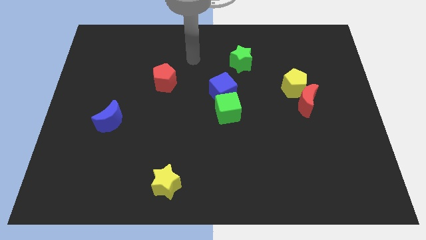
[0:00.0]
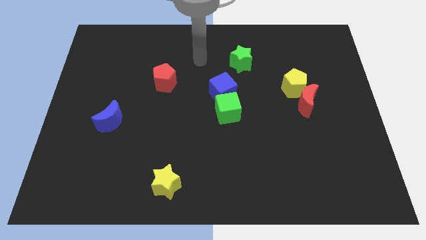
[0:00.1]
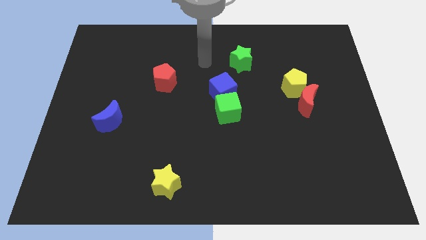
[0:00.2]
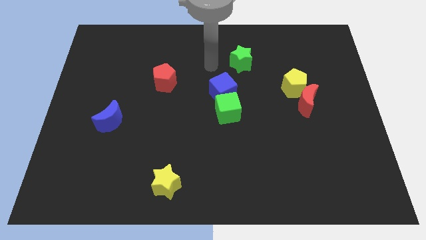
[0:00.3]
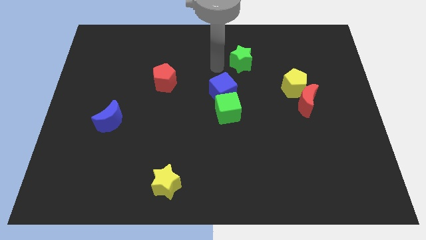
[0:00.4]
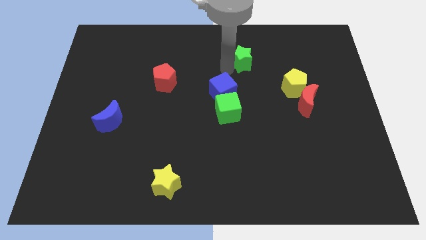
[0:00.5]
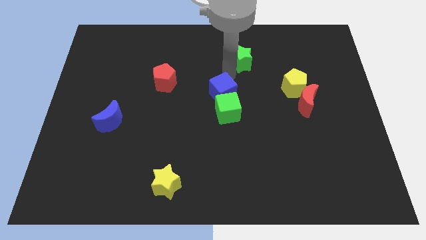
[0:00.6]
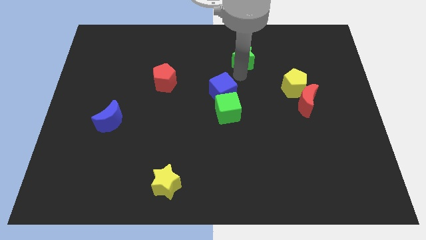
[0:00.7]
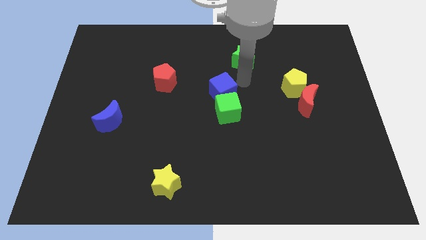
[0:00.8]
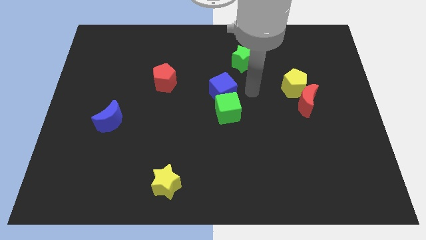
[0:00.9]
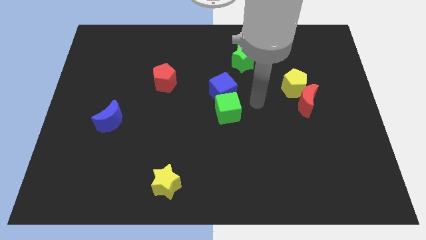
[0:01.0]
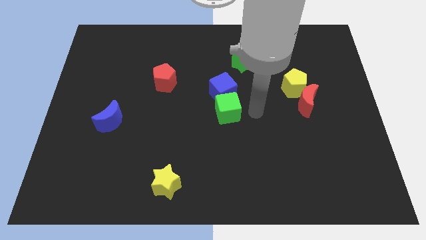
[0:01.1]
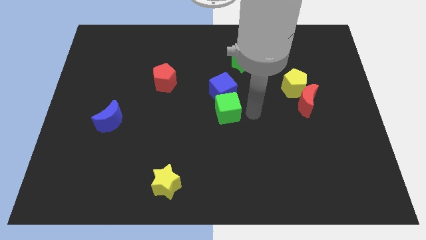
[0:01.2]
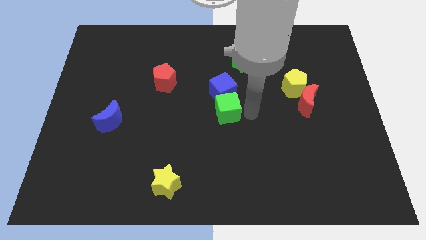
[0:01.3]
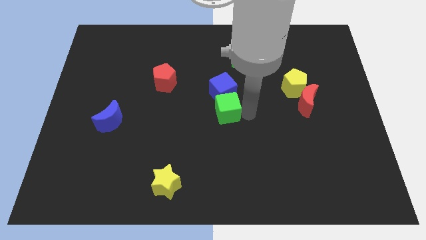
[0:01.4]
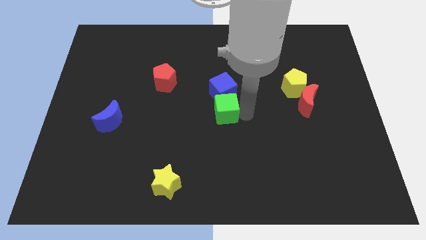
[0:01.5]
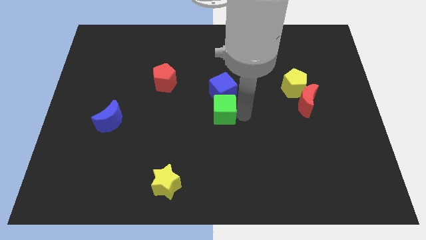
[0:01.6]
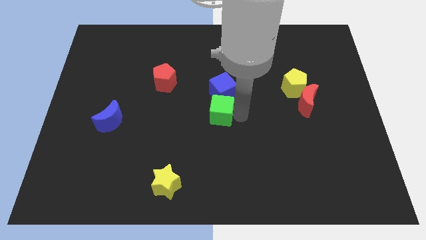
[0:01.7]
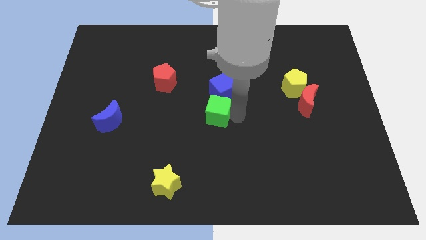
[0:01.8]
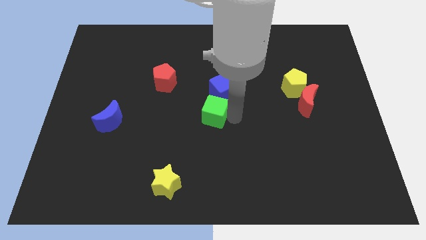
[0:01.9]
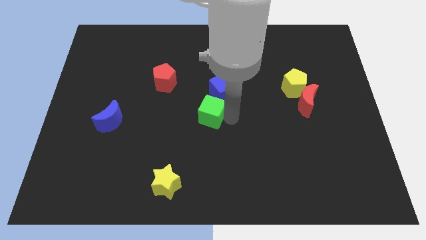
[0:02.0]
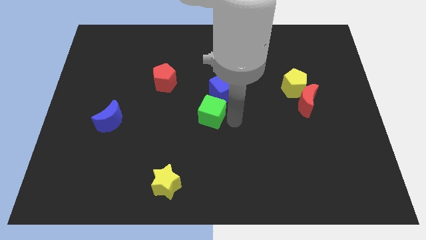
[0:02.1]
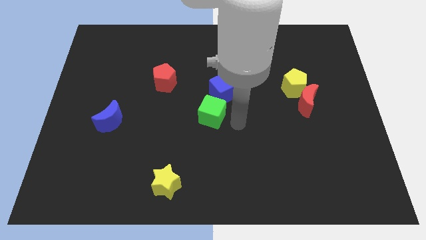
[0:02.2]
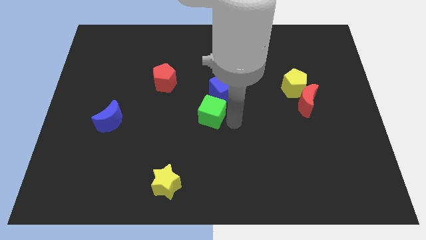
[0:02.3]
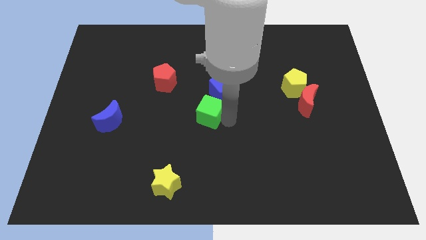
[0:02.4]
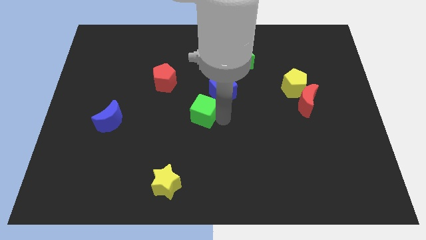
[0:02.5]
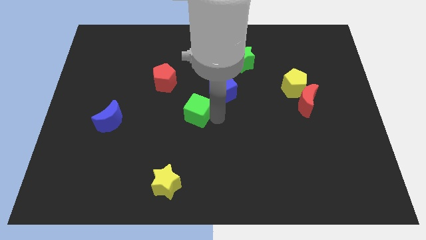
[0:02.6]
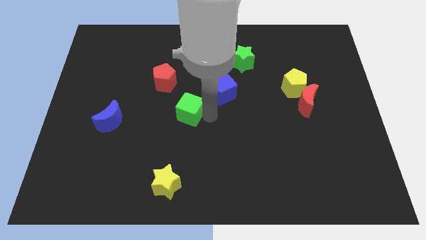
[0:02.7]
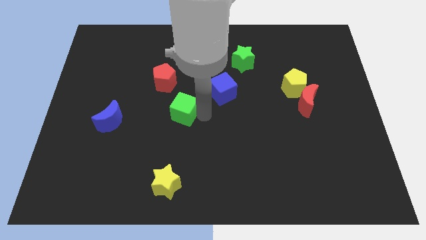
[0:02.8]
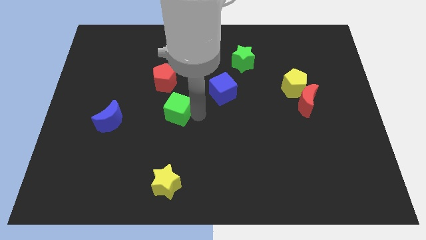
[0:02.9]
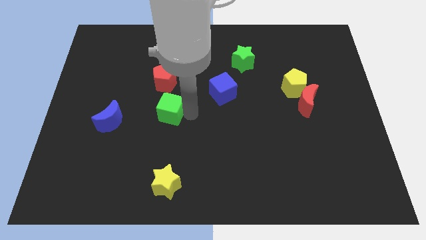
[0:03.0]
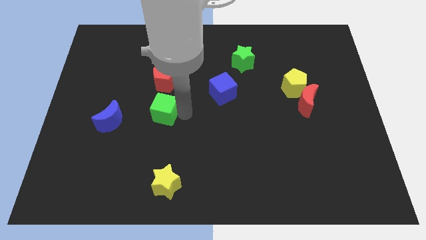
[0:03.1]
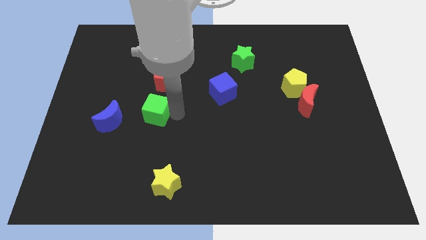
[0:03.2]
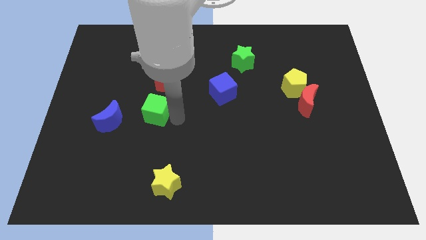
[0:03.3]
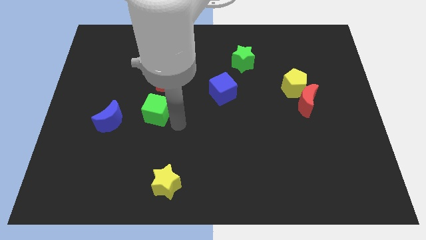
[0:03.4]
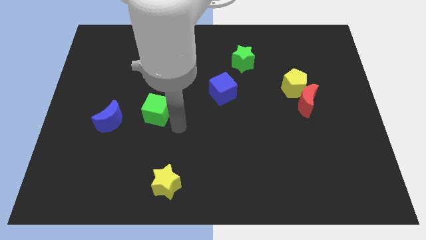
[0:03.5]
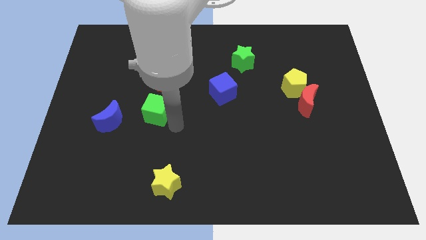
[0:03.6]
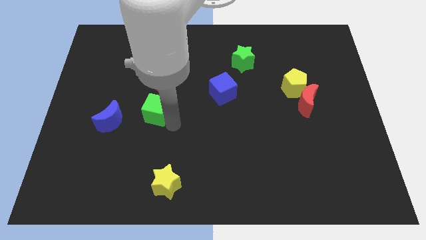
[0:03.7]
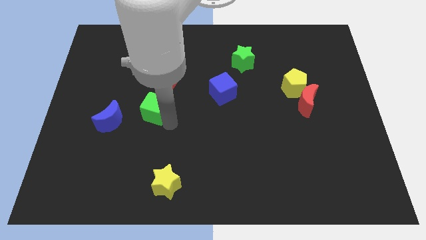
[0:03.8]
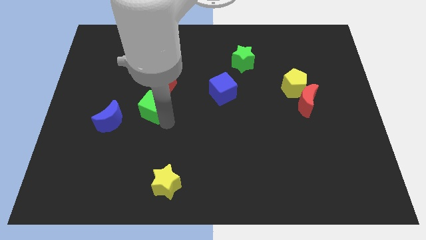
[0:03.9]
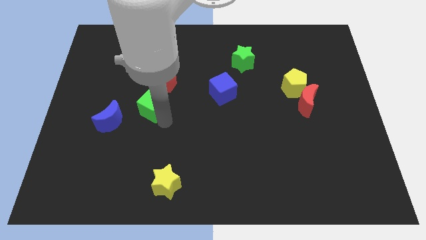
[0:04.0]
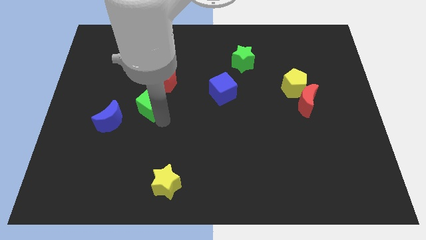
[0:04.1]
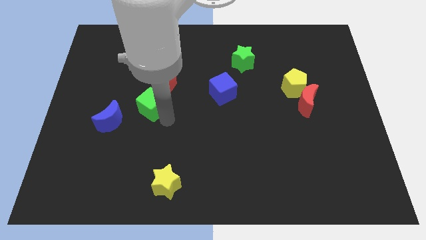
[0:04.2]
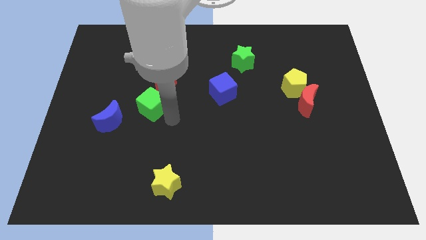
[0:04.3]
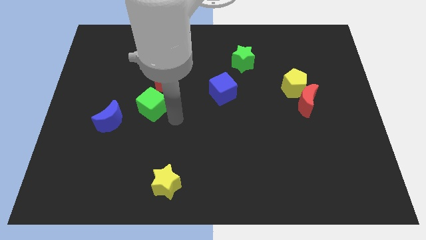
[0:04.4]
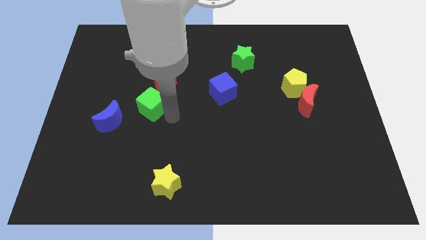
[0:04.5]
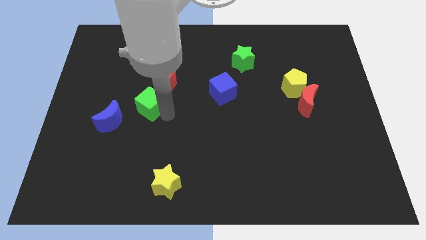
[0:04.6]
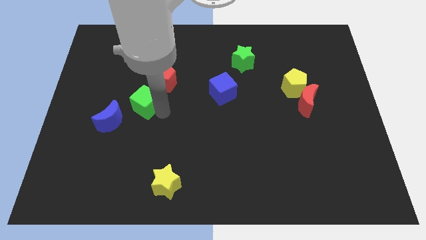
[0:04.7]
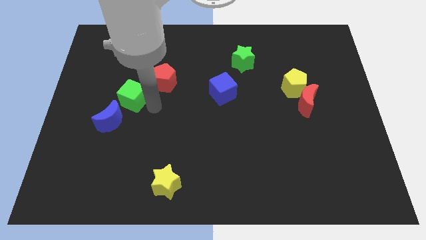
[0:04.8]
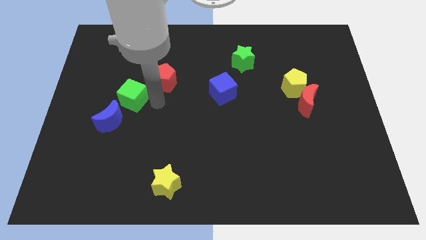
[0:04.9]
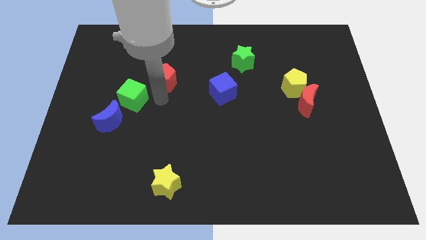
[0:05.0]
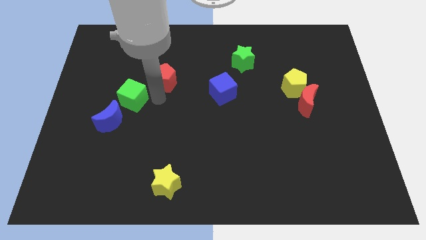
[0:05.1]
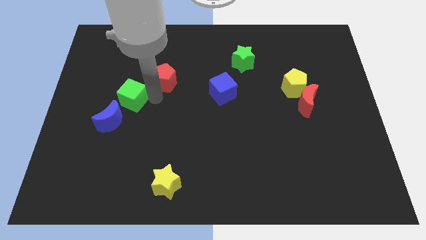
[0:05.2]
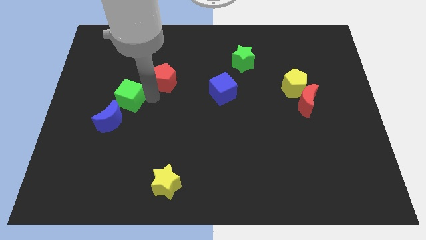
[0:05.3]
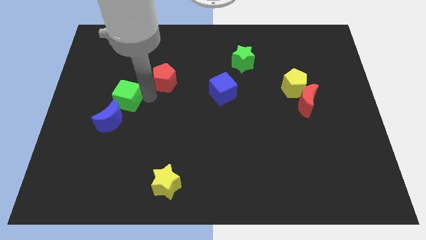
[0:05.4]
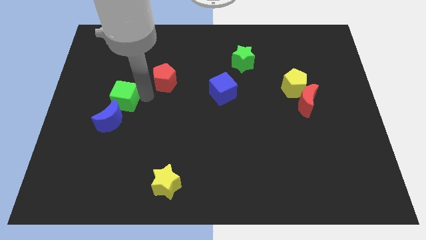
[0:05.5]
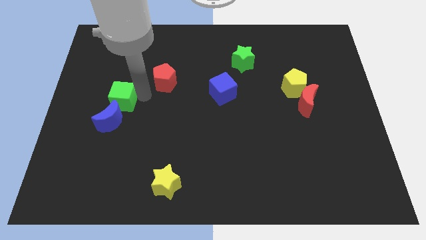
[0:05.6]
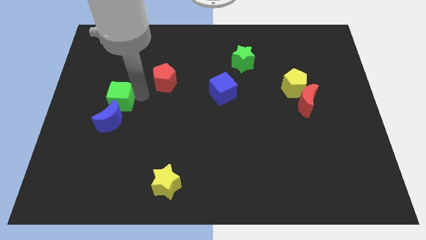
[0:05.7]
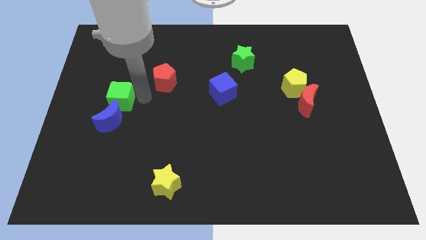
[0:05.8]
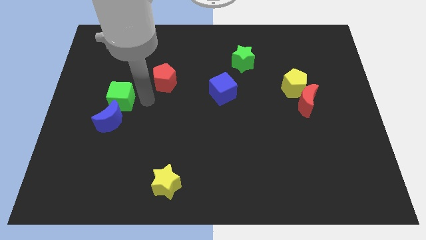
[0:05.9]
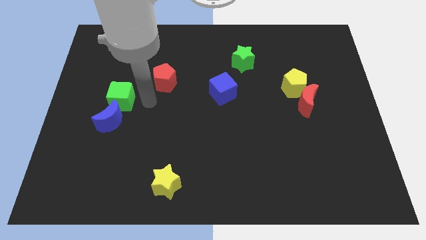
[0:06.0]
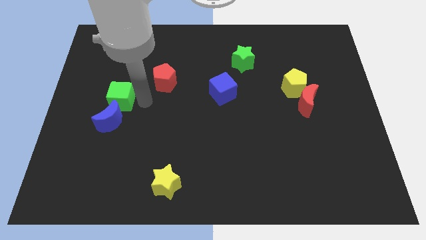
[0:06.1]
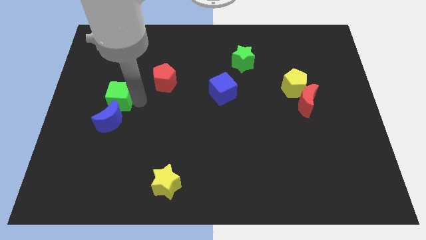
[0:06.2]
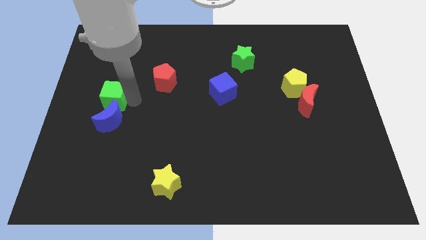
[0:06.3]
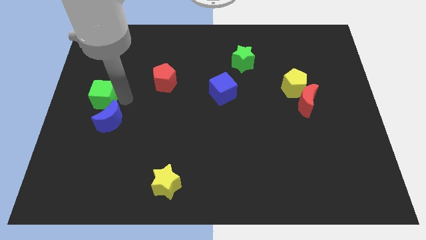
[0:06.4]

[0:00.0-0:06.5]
slide the green cube to the left side

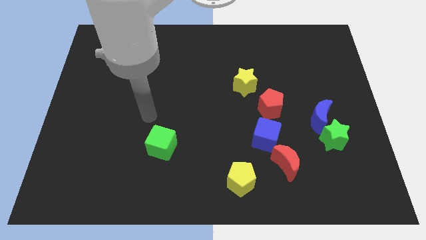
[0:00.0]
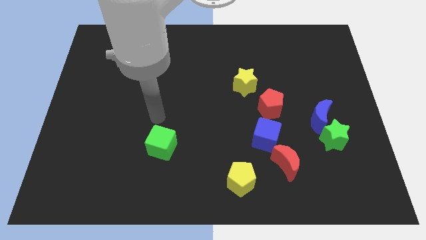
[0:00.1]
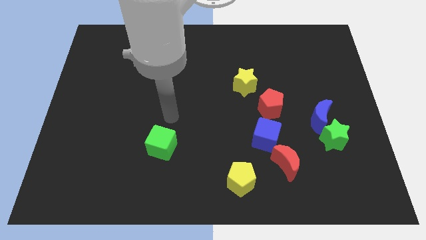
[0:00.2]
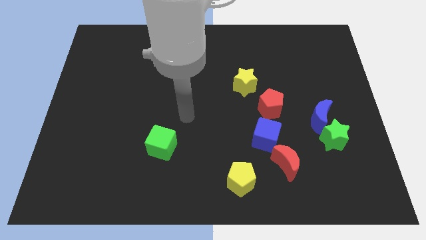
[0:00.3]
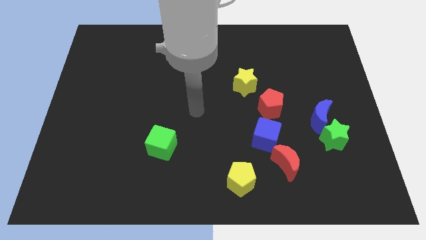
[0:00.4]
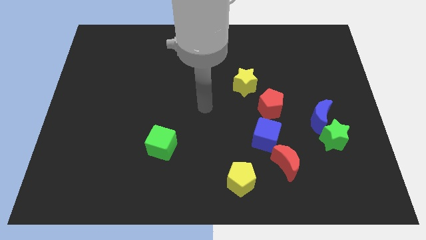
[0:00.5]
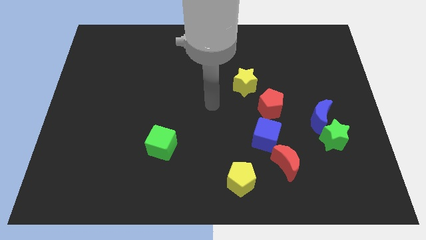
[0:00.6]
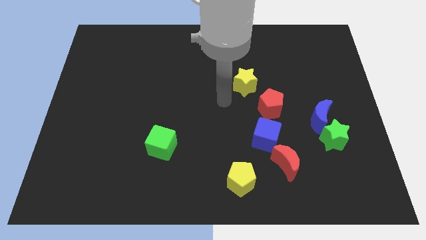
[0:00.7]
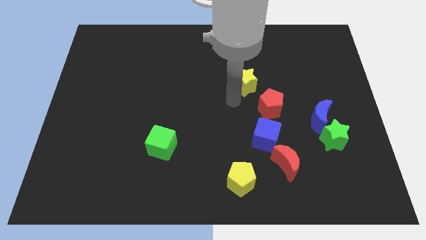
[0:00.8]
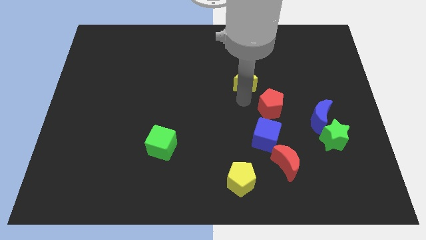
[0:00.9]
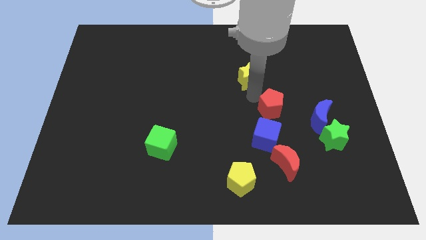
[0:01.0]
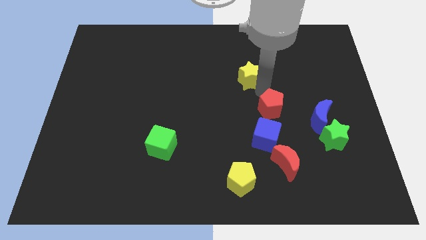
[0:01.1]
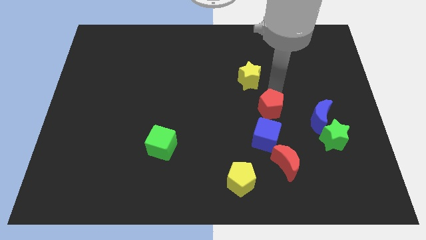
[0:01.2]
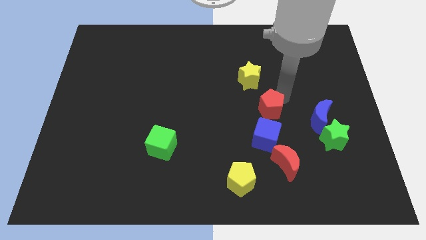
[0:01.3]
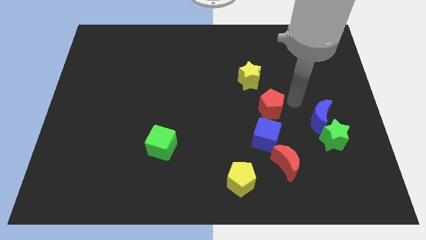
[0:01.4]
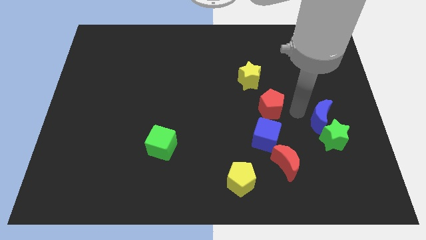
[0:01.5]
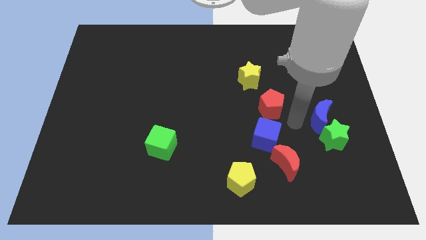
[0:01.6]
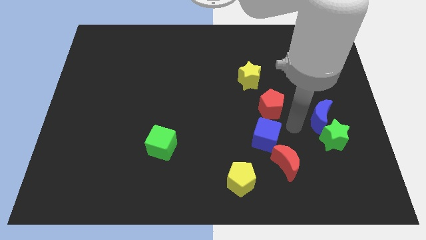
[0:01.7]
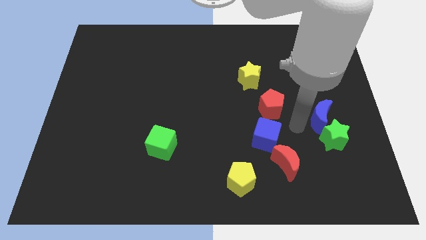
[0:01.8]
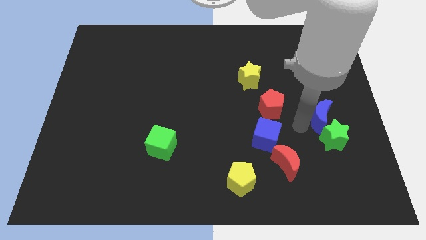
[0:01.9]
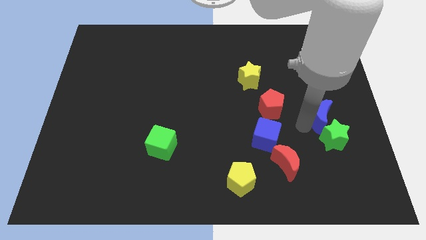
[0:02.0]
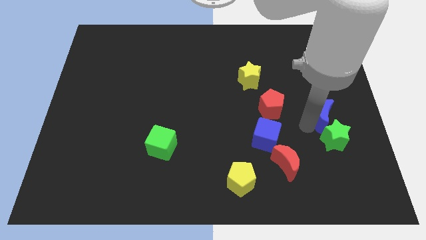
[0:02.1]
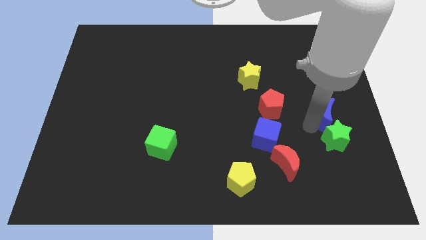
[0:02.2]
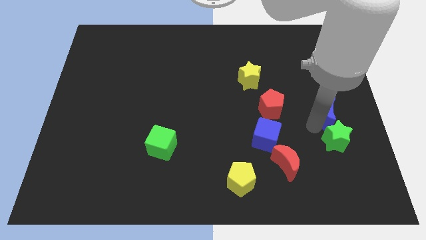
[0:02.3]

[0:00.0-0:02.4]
move the blue moon to the center right
